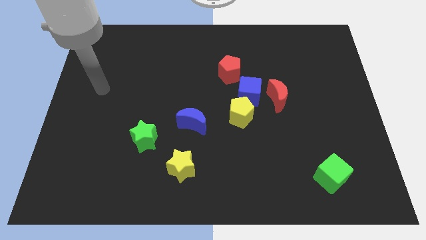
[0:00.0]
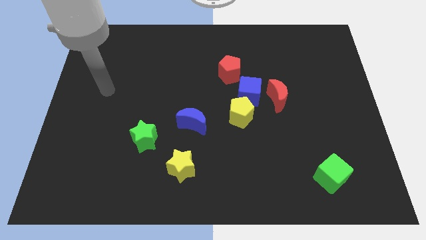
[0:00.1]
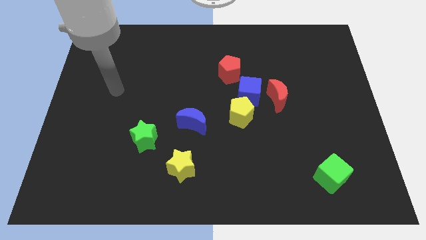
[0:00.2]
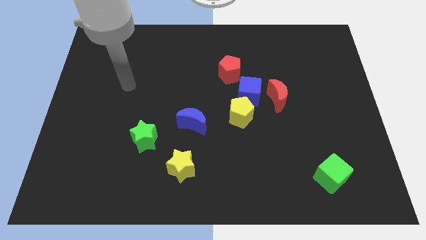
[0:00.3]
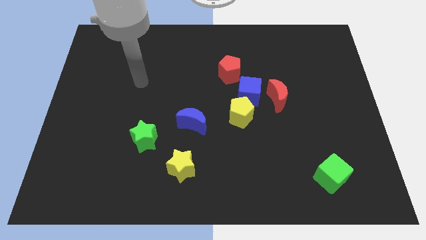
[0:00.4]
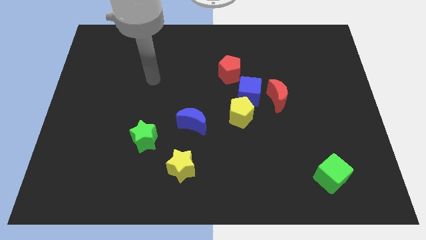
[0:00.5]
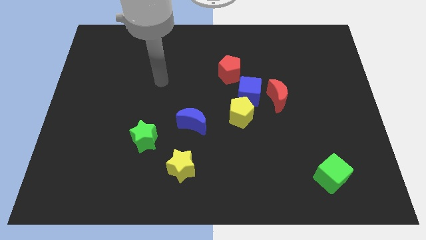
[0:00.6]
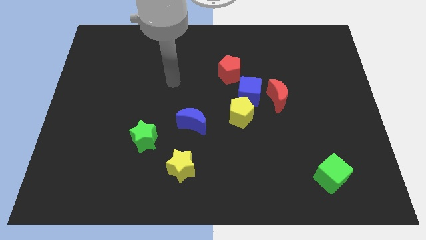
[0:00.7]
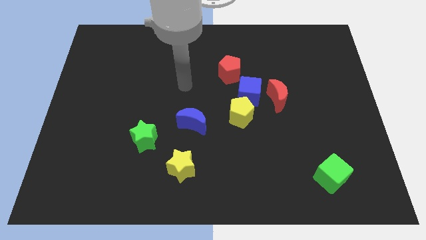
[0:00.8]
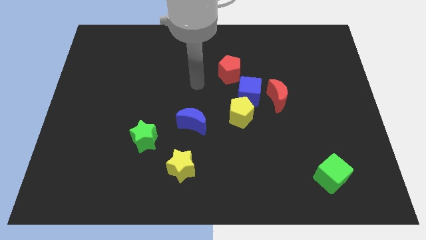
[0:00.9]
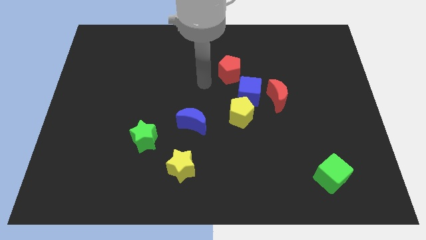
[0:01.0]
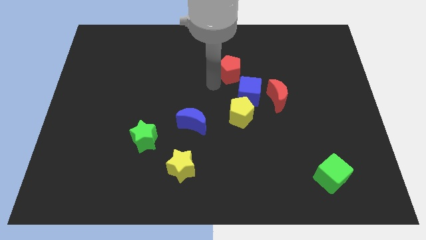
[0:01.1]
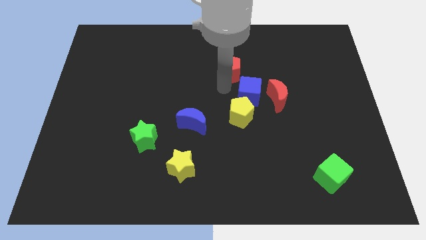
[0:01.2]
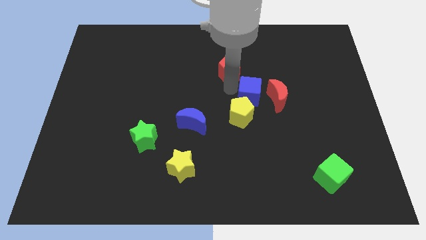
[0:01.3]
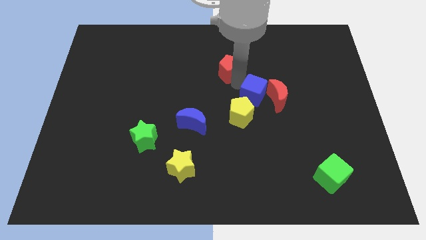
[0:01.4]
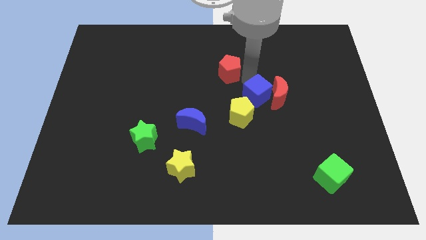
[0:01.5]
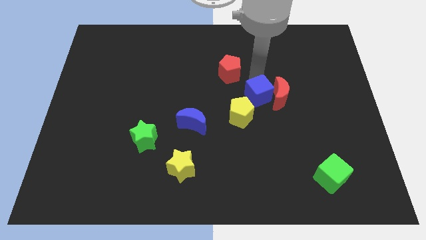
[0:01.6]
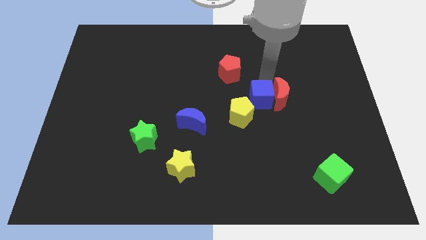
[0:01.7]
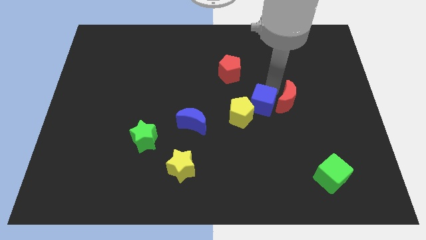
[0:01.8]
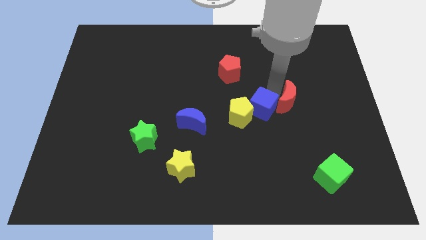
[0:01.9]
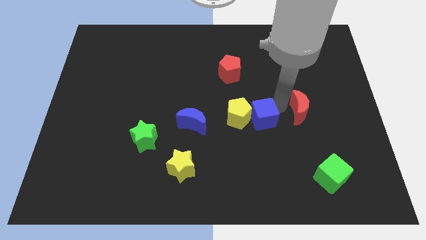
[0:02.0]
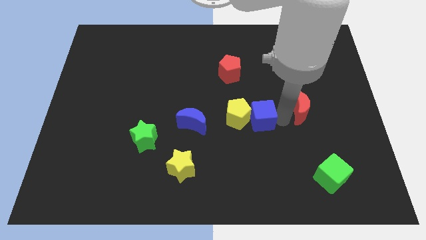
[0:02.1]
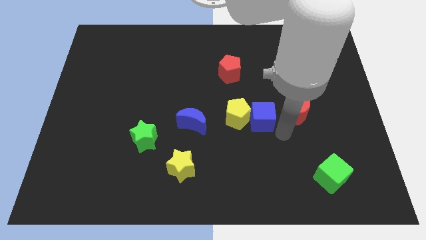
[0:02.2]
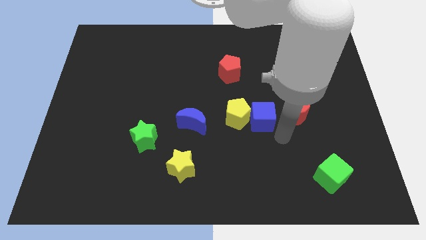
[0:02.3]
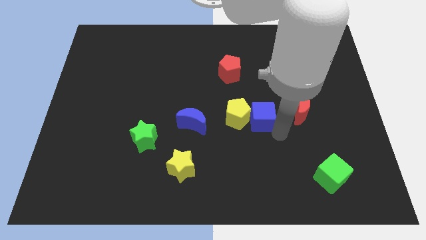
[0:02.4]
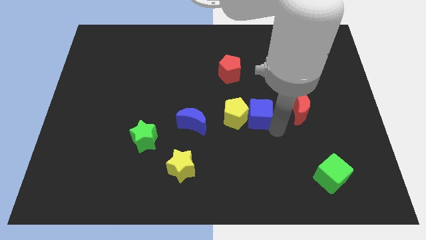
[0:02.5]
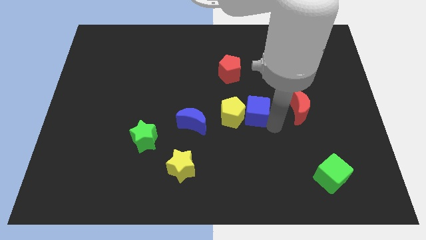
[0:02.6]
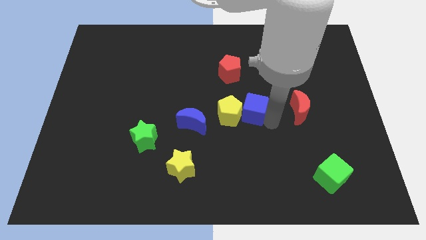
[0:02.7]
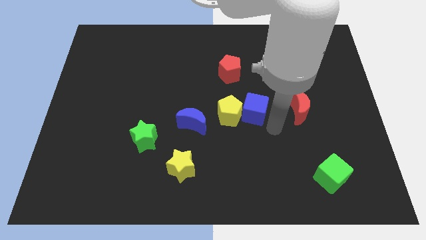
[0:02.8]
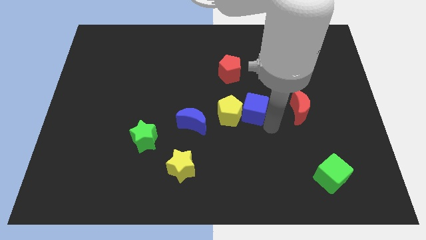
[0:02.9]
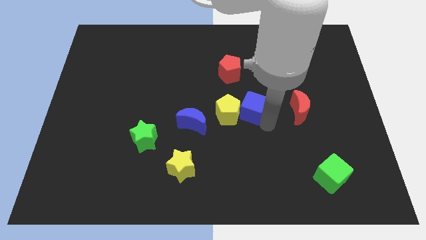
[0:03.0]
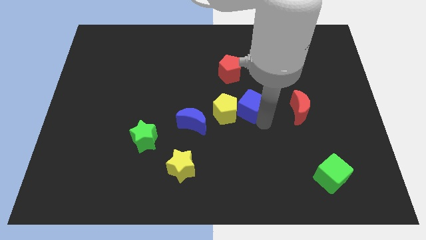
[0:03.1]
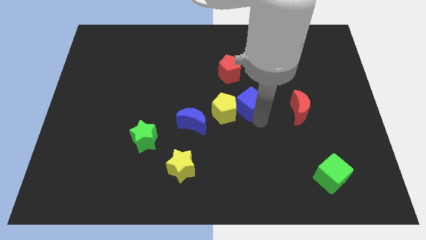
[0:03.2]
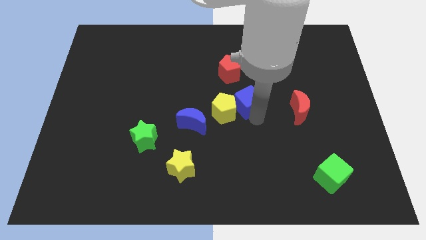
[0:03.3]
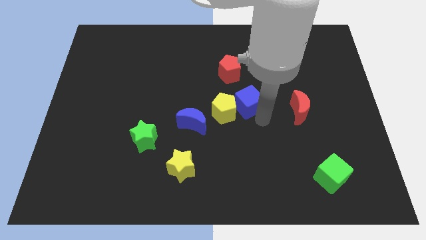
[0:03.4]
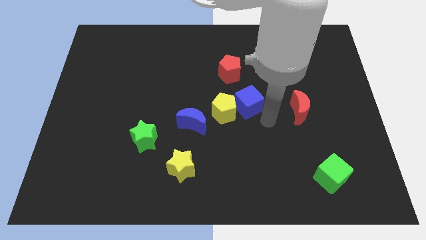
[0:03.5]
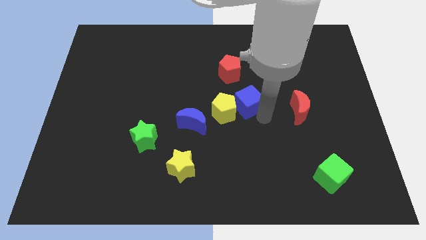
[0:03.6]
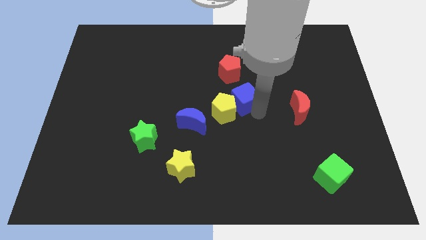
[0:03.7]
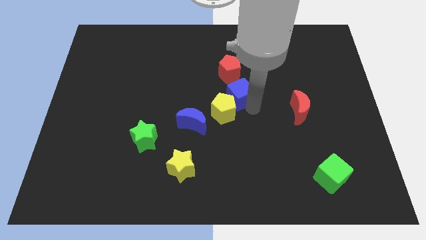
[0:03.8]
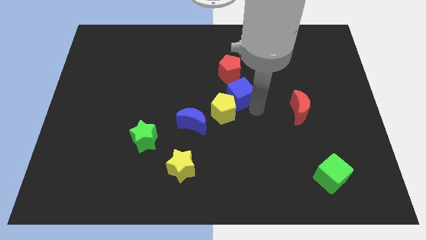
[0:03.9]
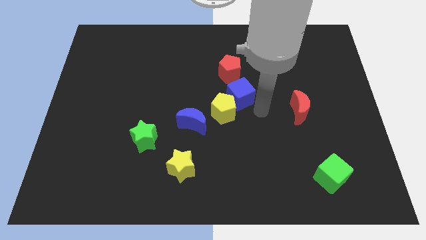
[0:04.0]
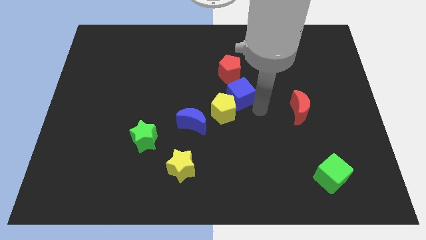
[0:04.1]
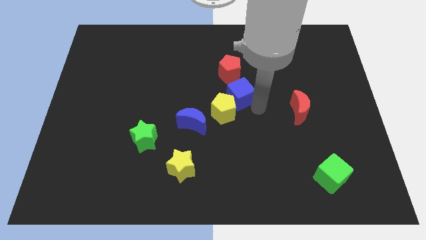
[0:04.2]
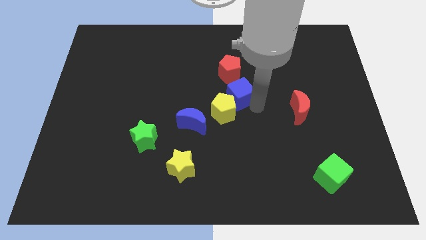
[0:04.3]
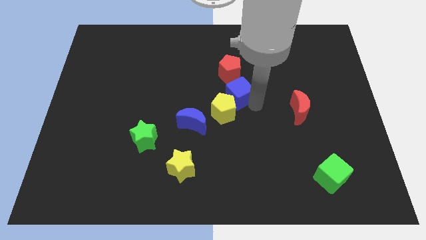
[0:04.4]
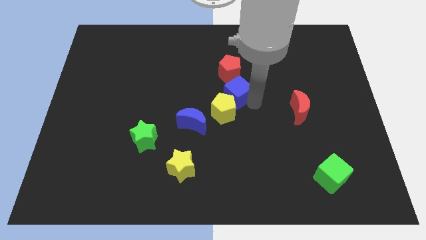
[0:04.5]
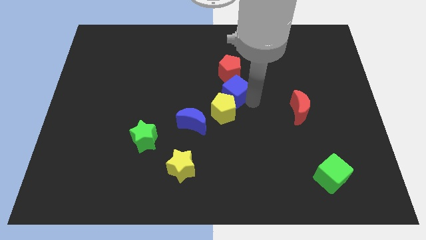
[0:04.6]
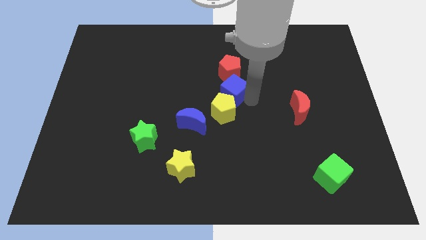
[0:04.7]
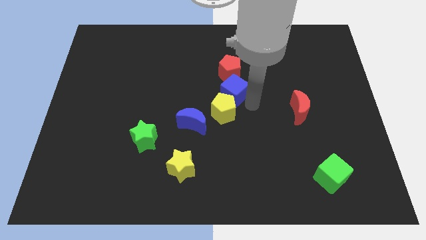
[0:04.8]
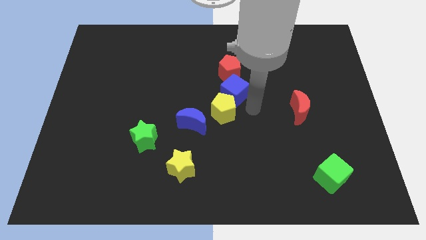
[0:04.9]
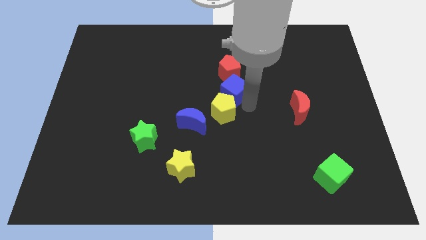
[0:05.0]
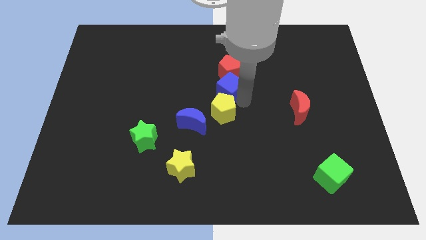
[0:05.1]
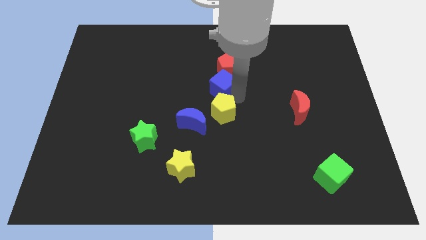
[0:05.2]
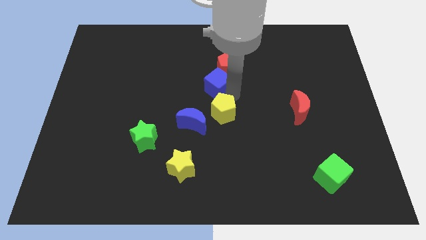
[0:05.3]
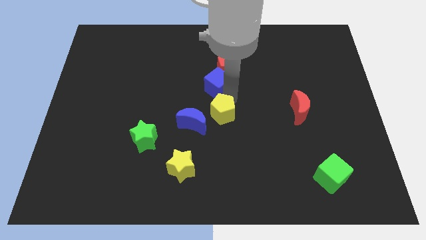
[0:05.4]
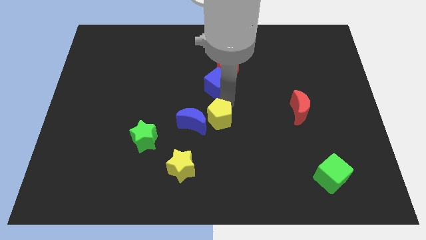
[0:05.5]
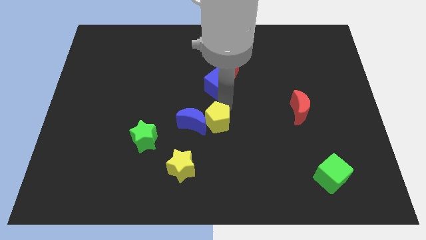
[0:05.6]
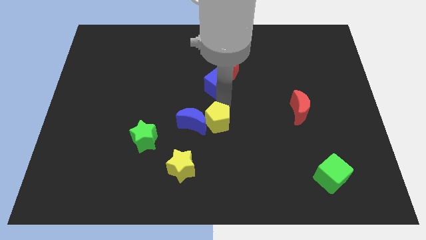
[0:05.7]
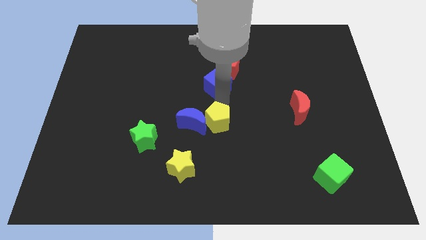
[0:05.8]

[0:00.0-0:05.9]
slightly push the blue cube diagonally upwards and left

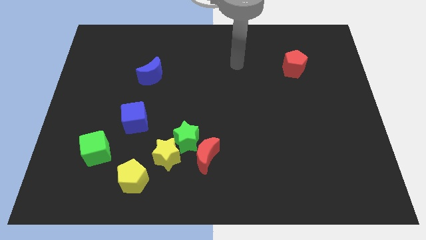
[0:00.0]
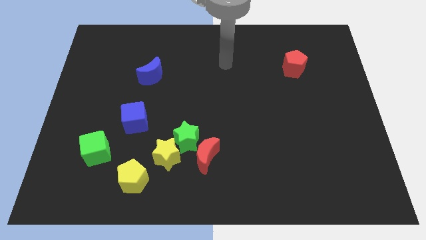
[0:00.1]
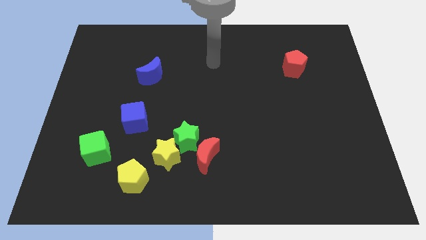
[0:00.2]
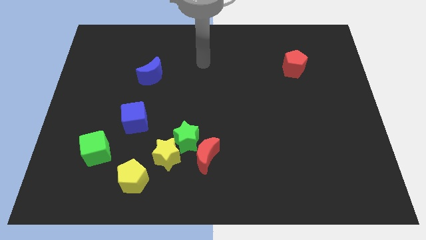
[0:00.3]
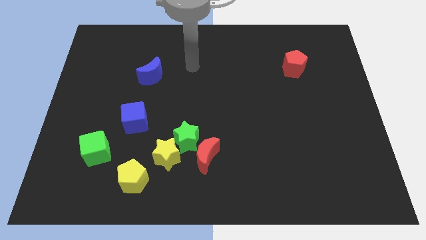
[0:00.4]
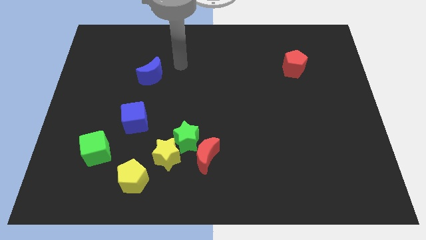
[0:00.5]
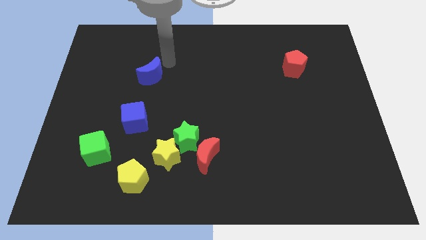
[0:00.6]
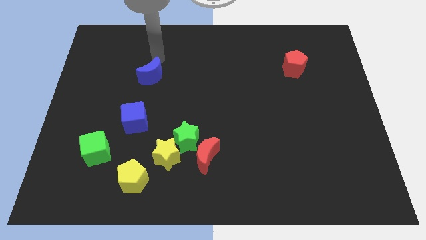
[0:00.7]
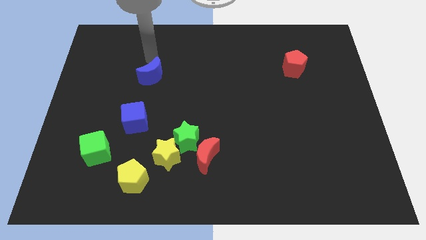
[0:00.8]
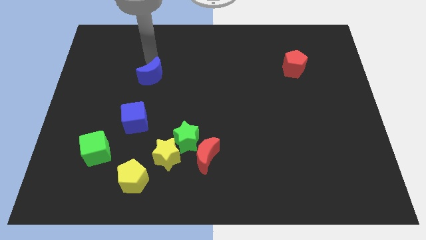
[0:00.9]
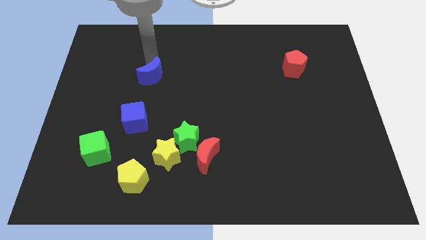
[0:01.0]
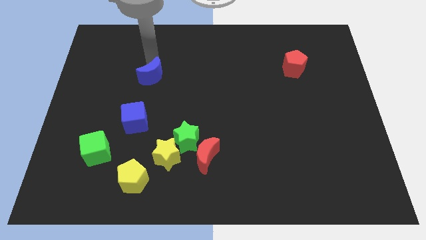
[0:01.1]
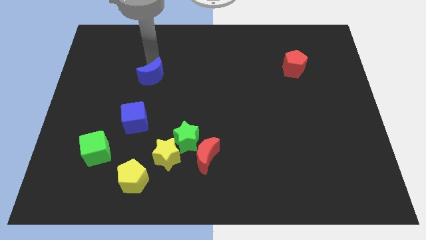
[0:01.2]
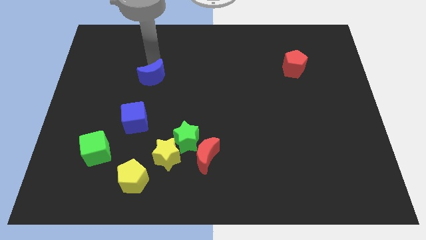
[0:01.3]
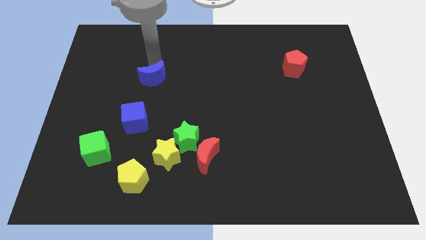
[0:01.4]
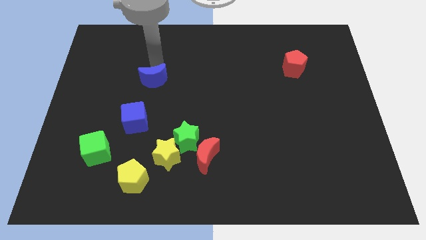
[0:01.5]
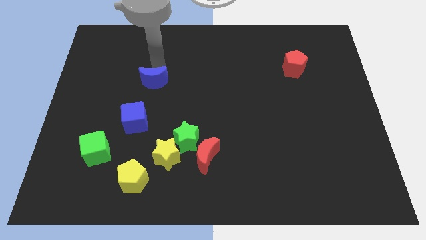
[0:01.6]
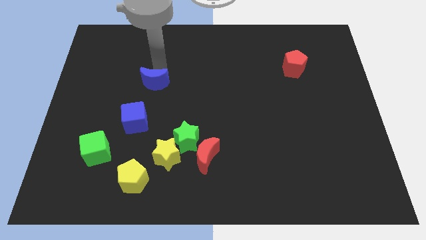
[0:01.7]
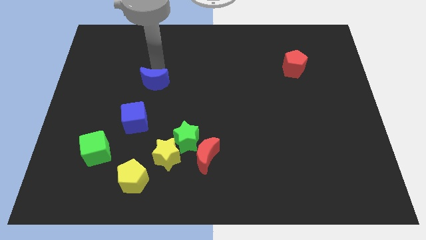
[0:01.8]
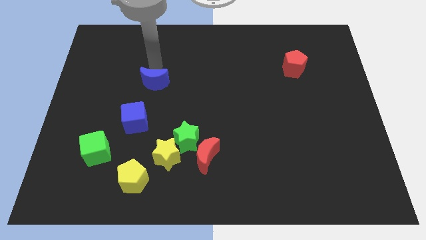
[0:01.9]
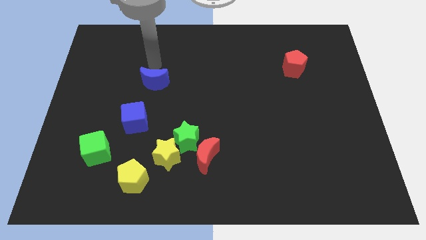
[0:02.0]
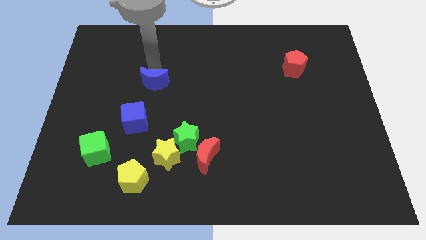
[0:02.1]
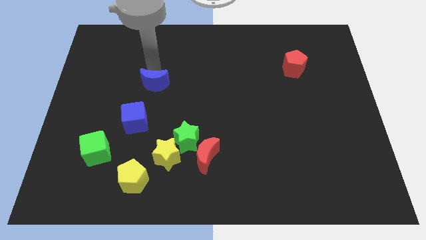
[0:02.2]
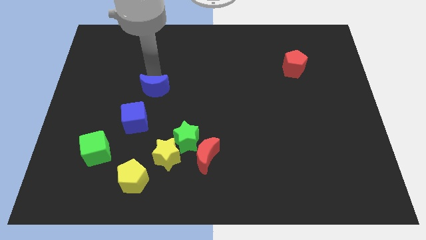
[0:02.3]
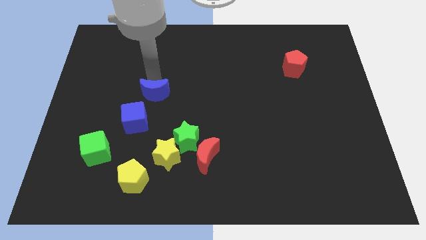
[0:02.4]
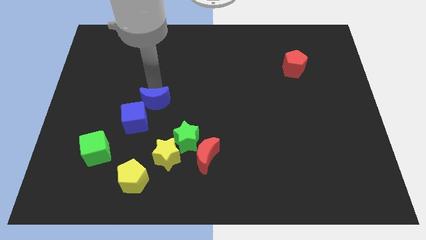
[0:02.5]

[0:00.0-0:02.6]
slightly slide the blue moon down
